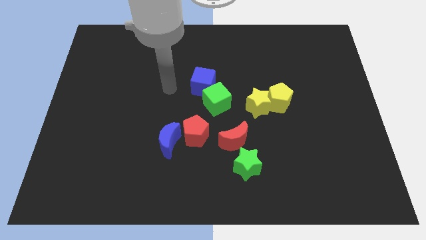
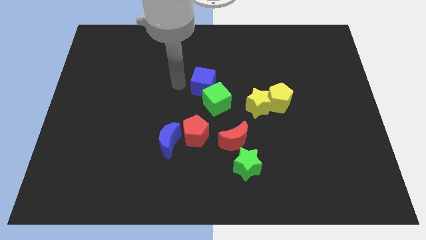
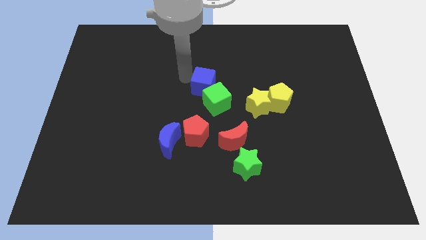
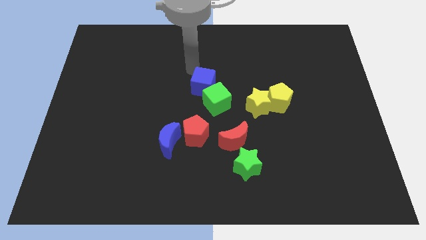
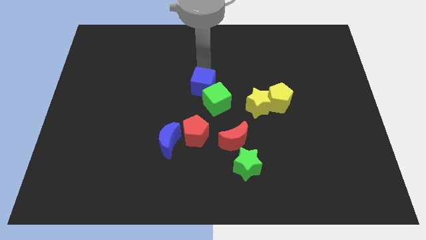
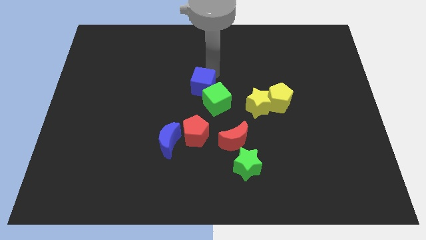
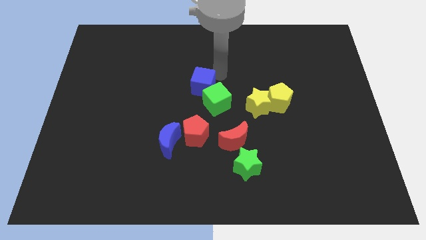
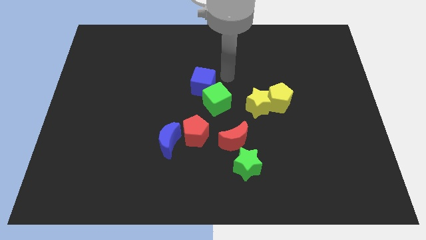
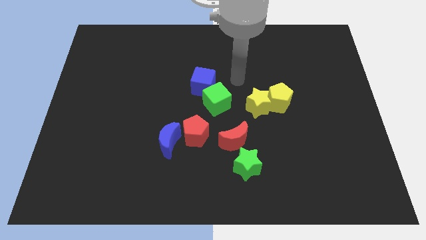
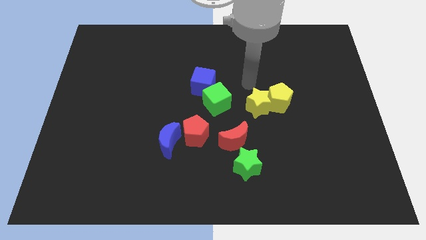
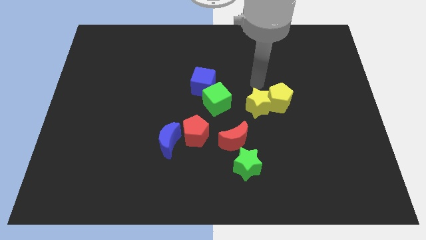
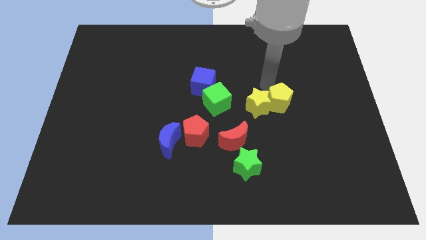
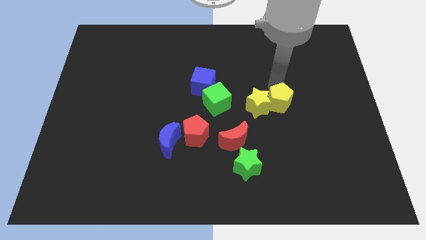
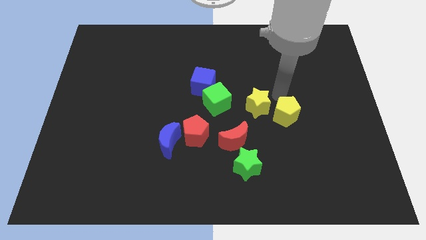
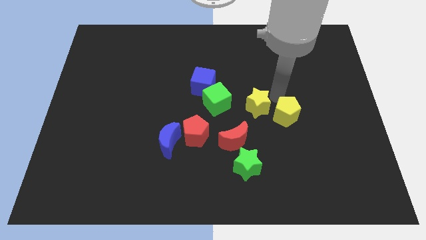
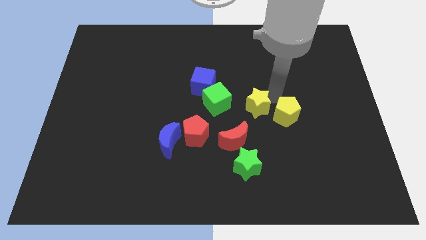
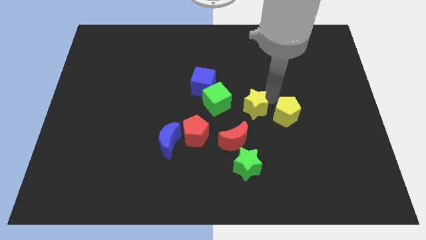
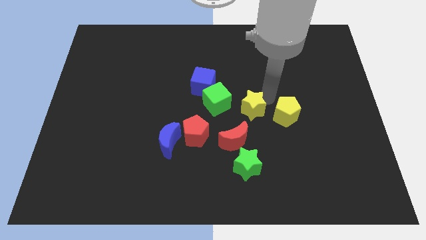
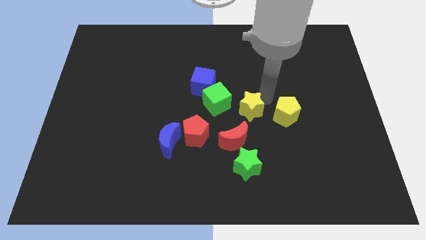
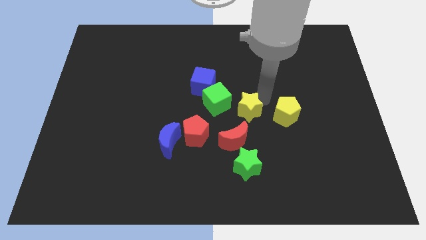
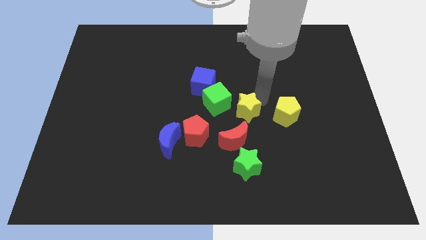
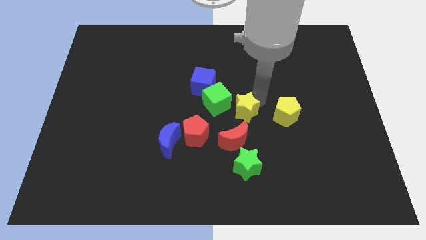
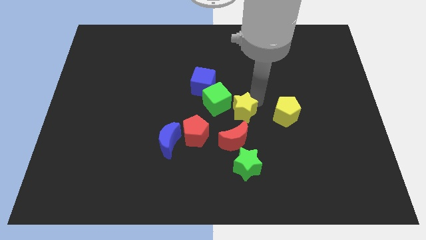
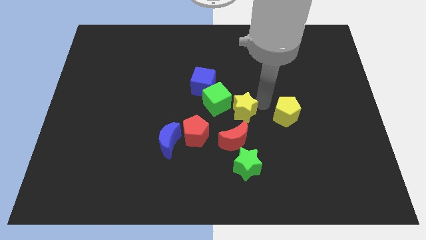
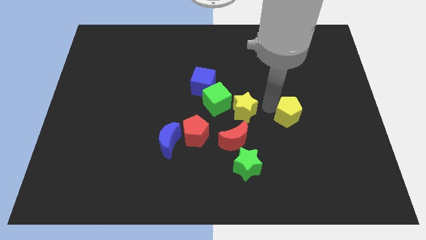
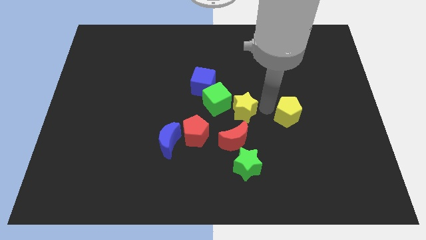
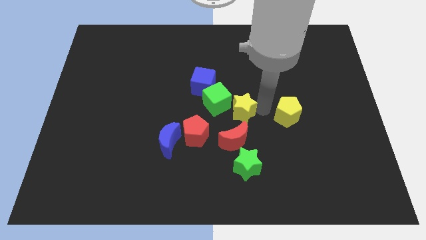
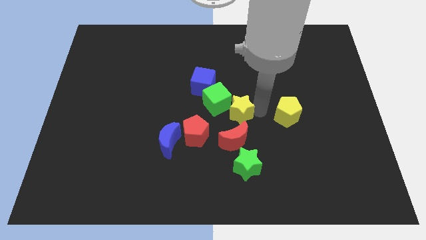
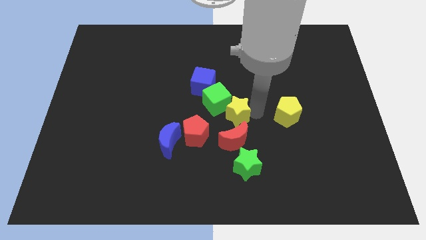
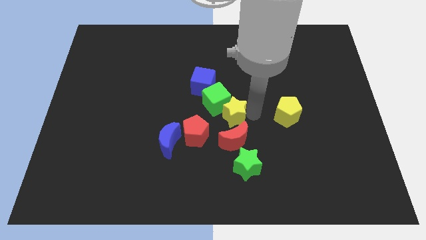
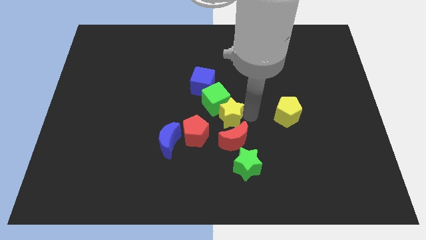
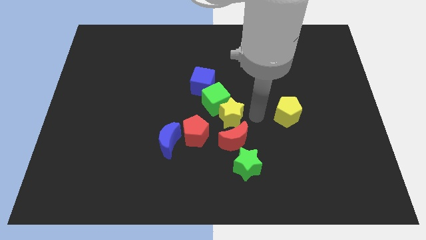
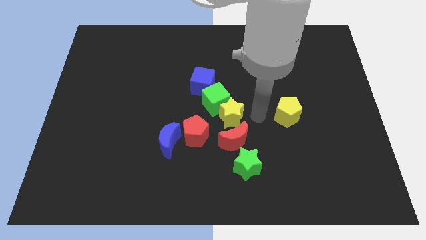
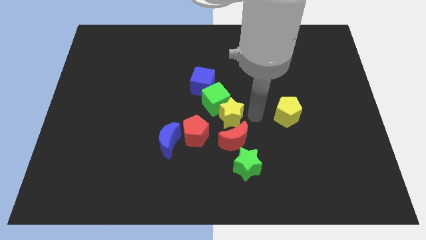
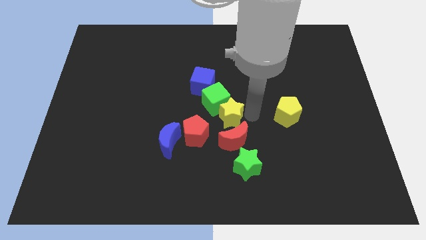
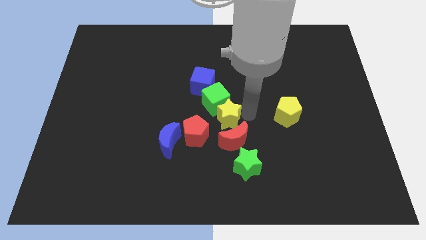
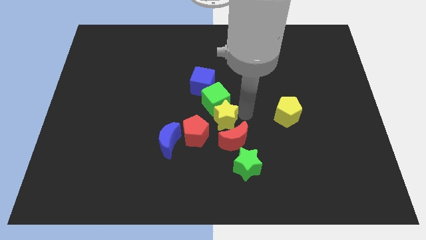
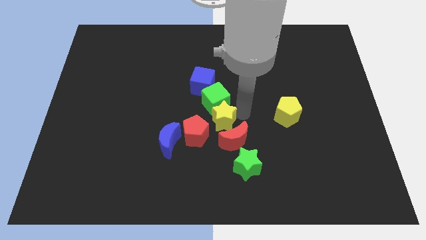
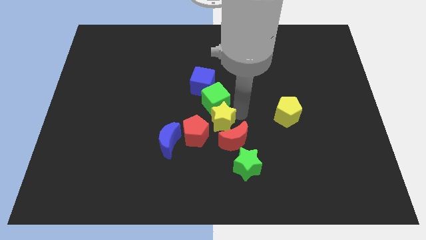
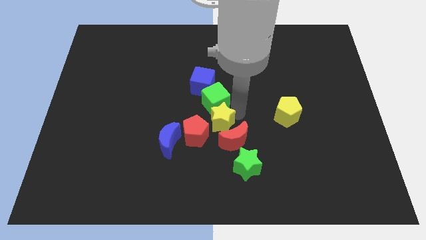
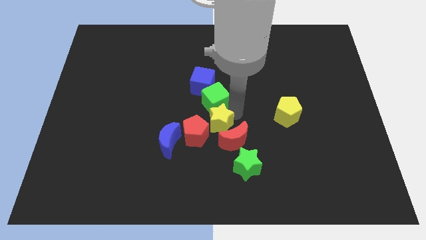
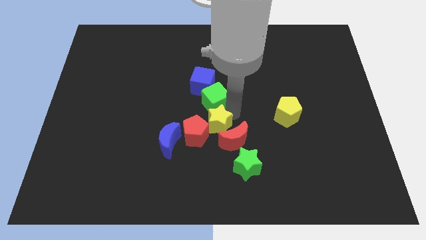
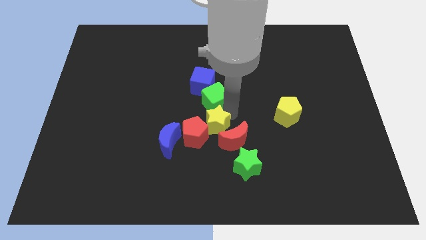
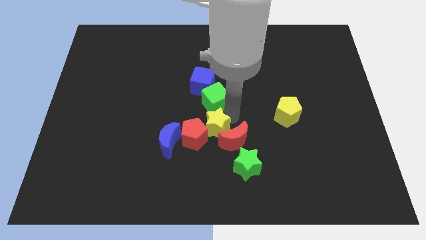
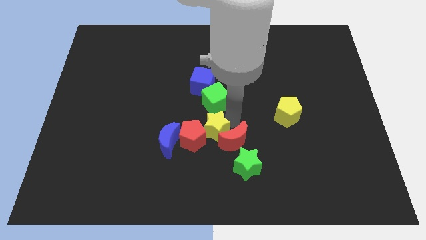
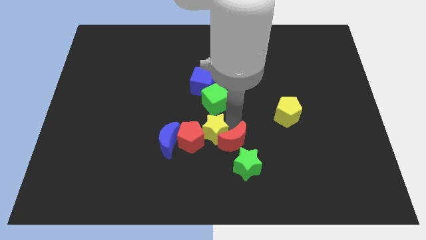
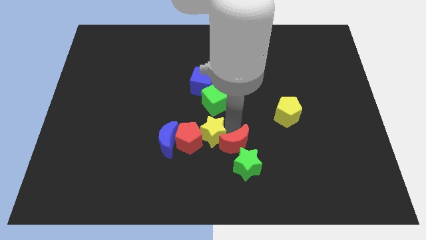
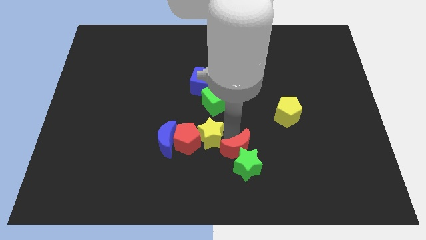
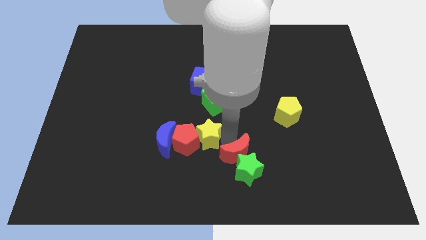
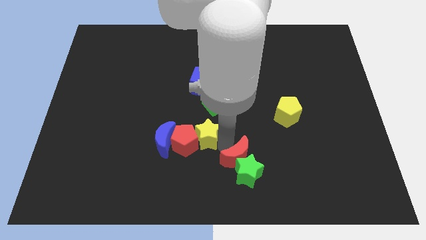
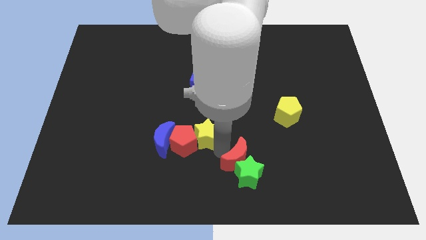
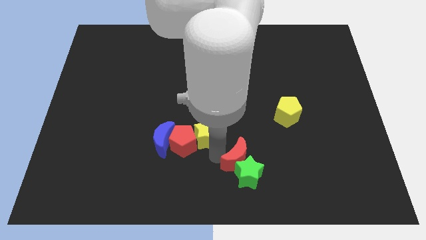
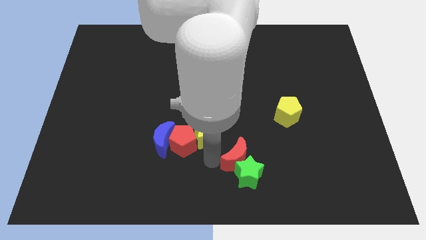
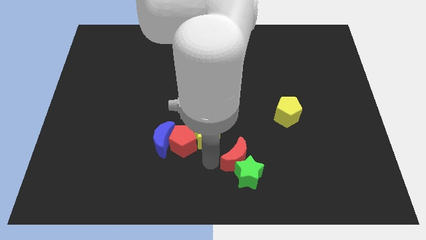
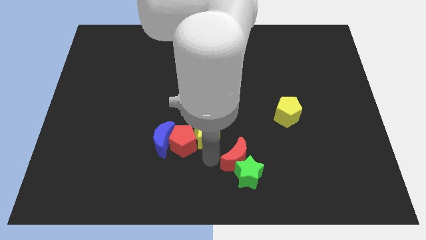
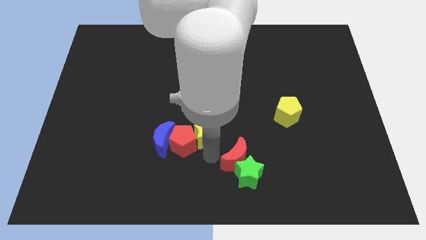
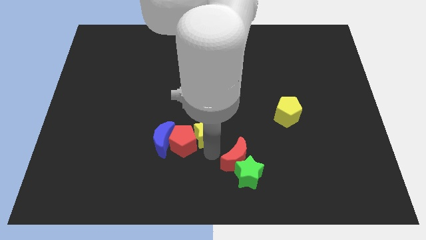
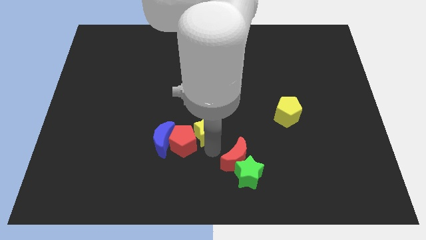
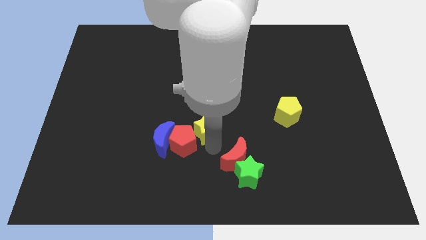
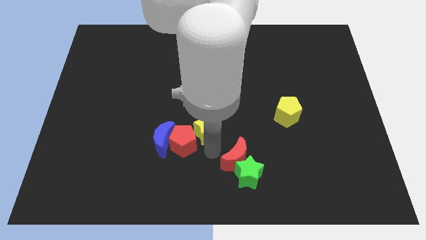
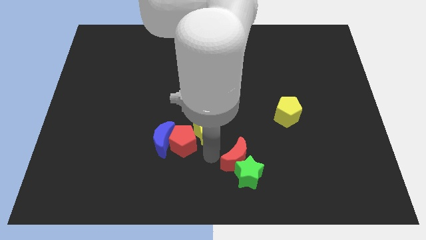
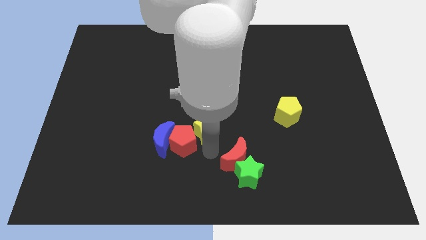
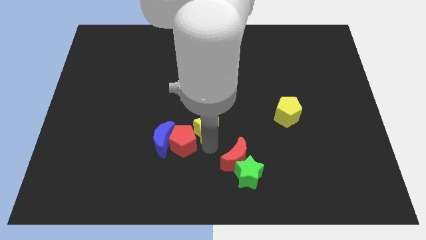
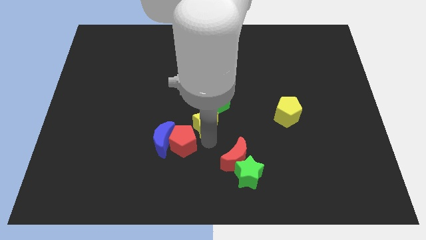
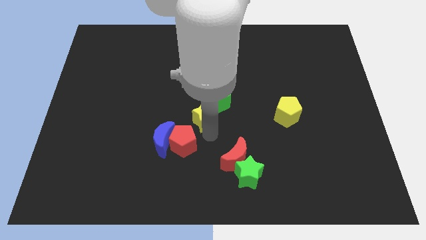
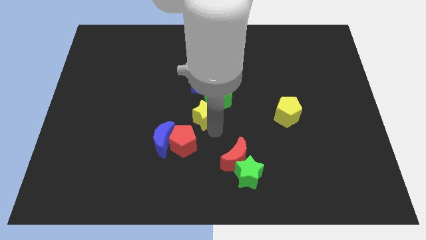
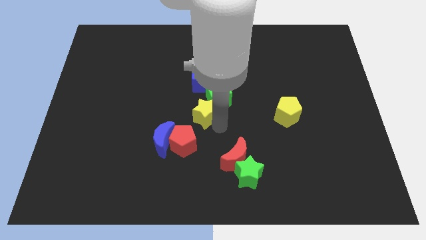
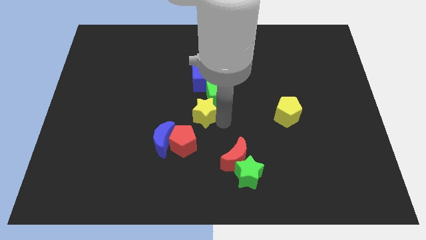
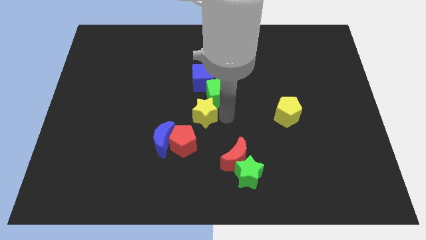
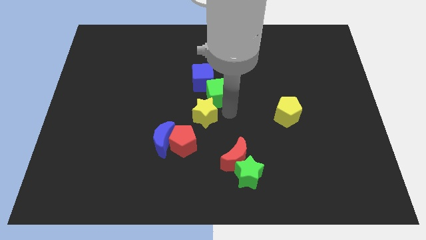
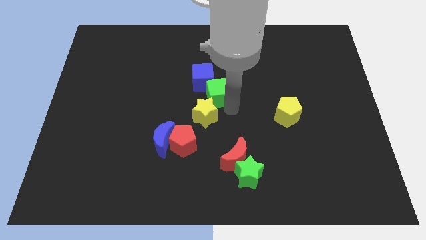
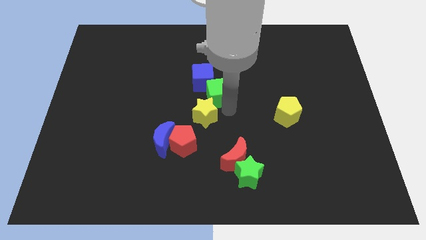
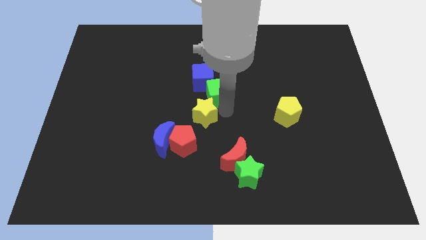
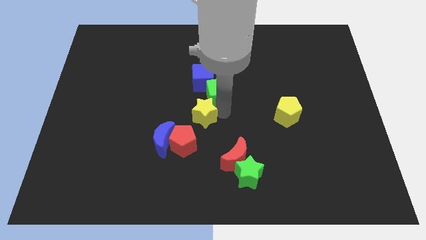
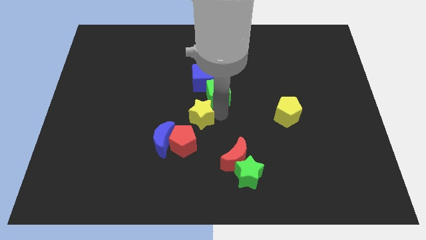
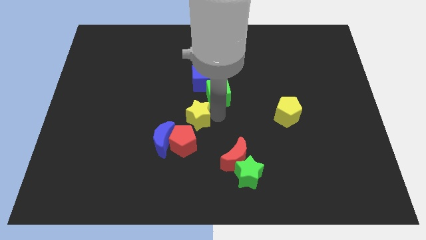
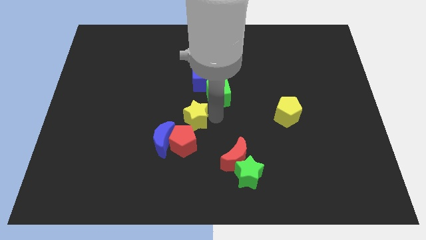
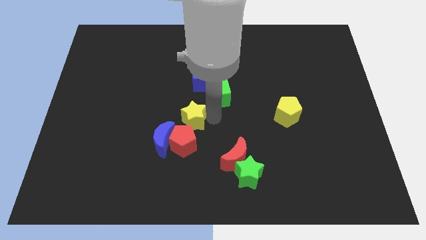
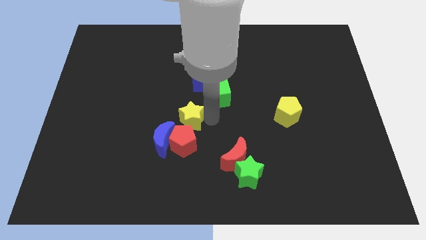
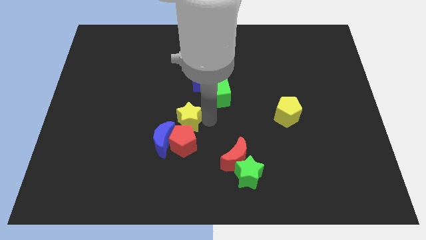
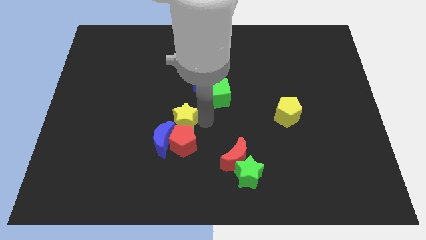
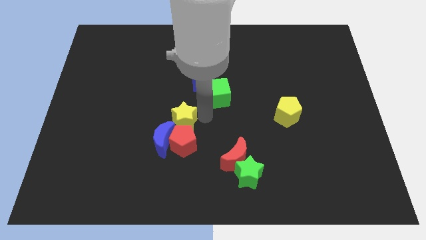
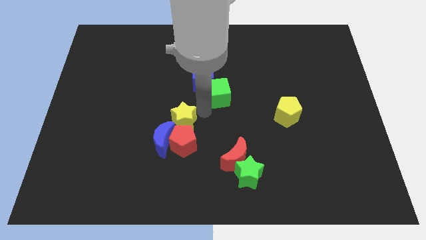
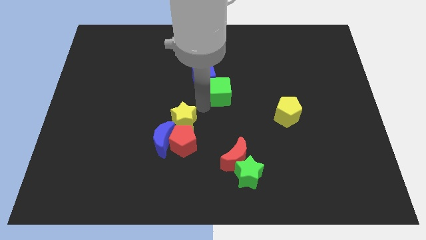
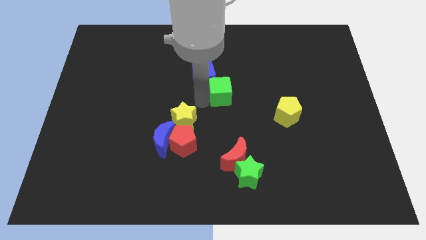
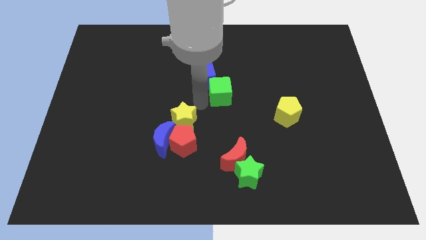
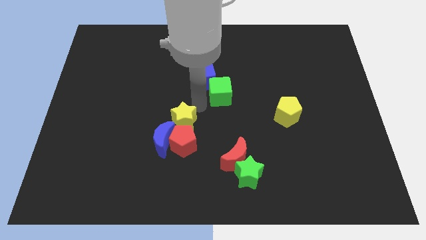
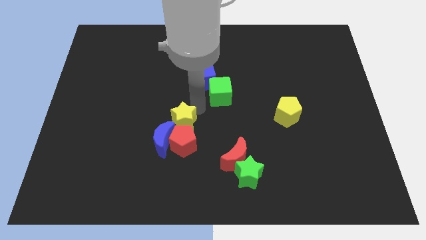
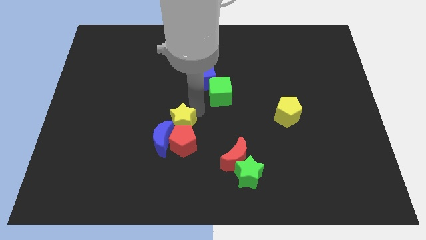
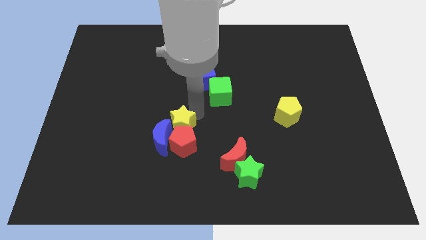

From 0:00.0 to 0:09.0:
put the yellow star next to the blue moon
